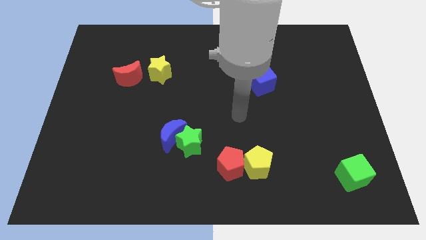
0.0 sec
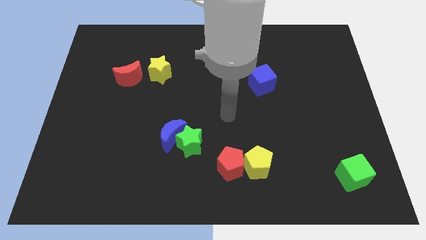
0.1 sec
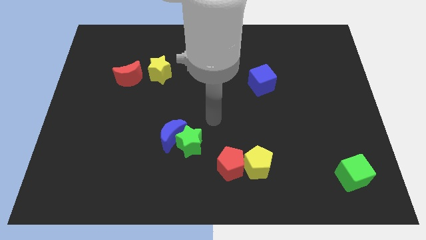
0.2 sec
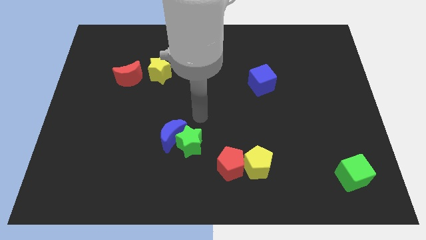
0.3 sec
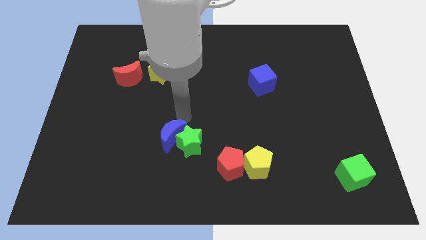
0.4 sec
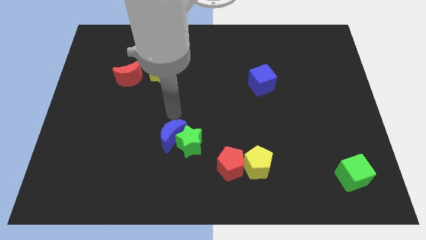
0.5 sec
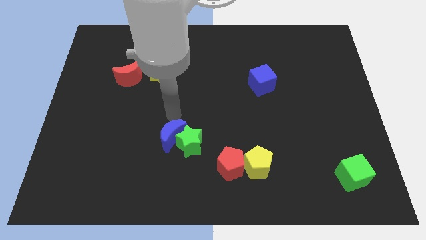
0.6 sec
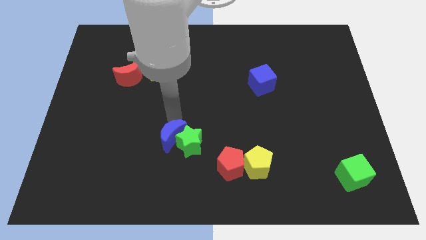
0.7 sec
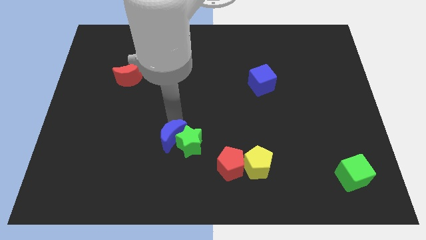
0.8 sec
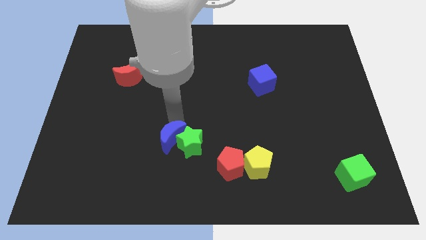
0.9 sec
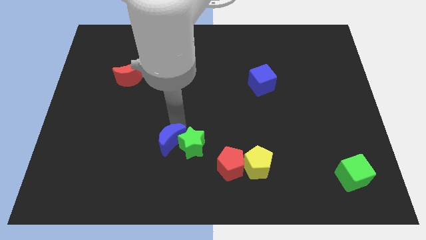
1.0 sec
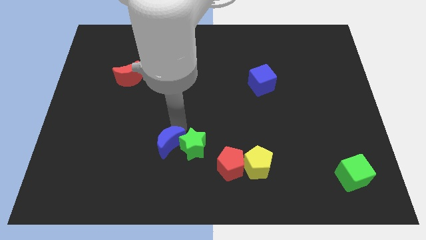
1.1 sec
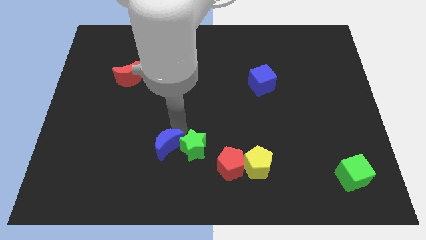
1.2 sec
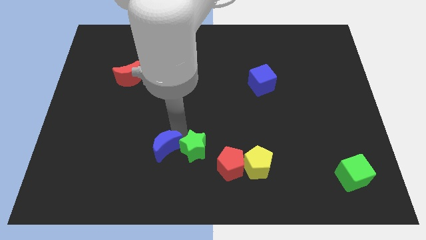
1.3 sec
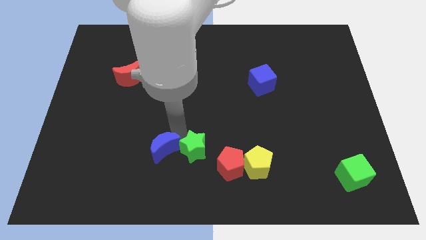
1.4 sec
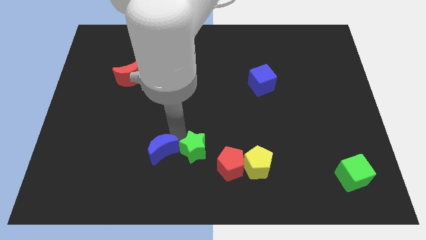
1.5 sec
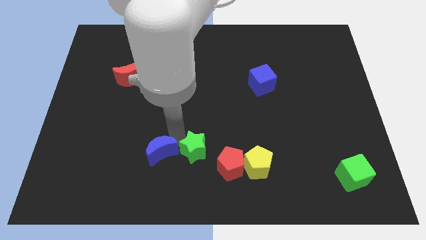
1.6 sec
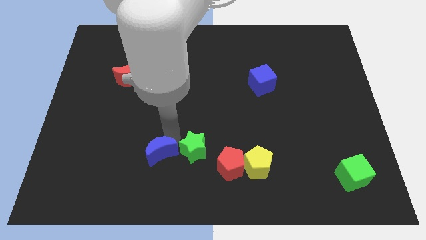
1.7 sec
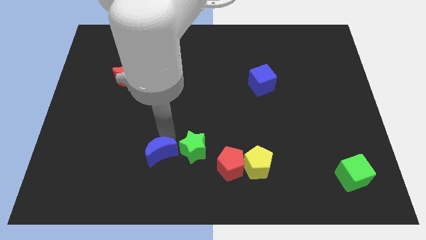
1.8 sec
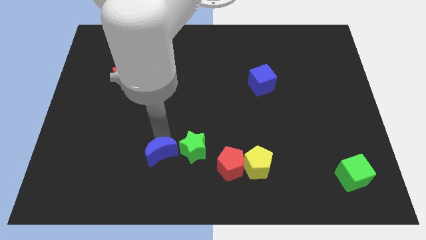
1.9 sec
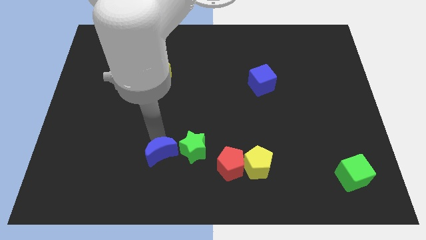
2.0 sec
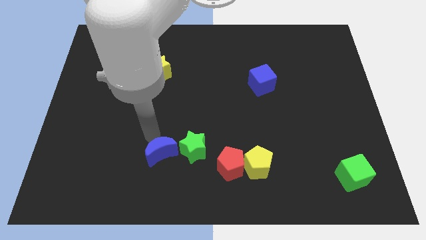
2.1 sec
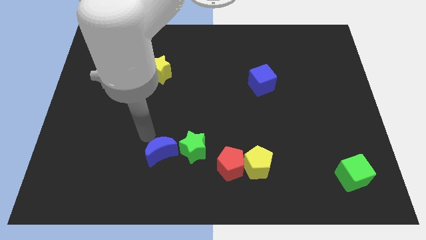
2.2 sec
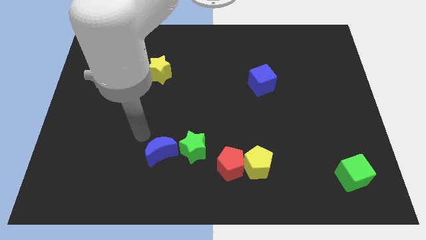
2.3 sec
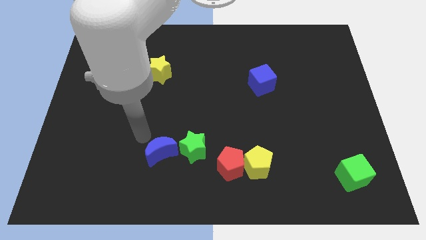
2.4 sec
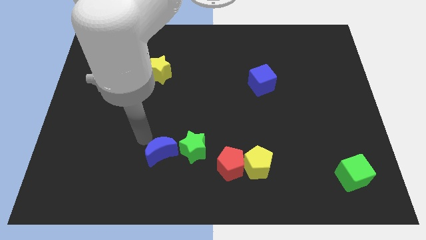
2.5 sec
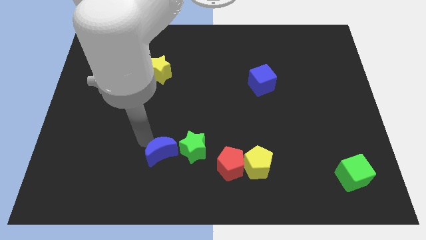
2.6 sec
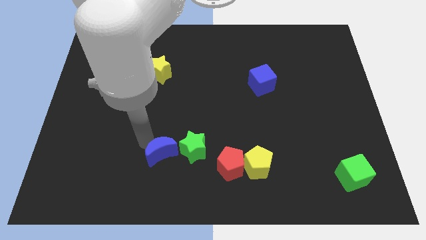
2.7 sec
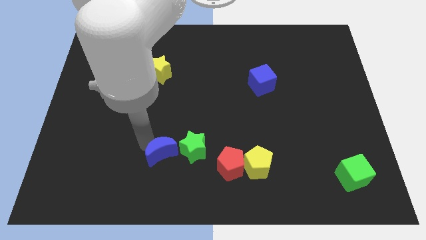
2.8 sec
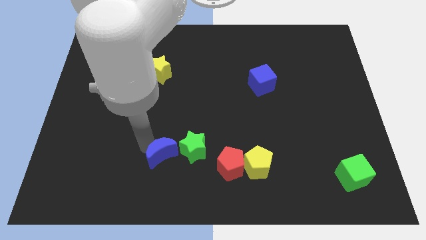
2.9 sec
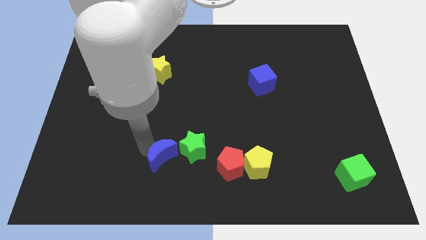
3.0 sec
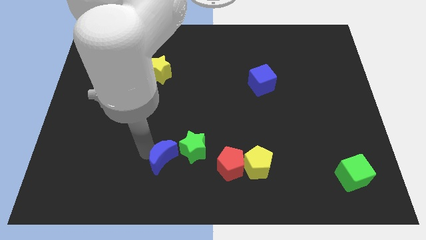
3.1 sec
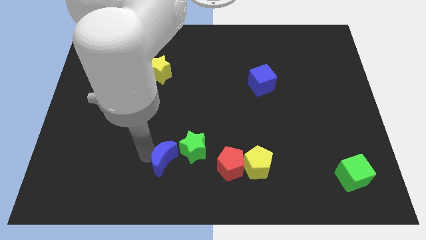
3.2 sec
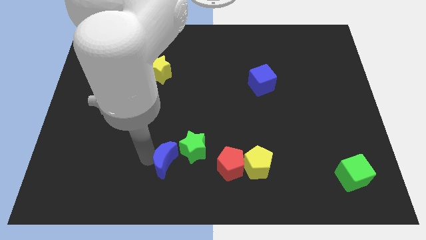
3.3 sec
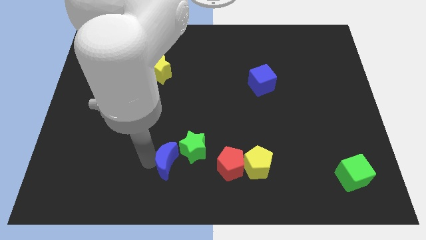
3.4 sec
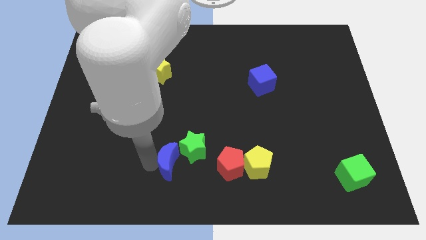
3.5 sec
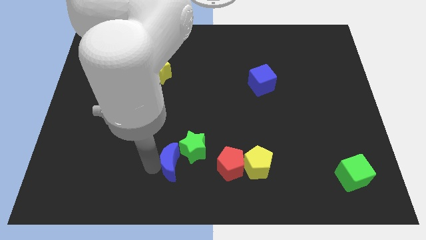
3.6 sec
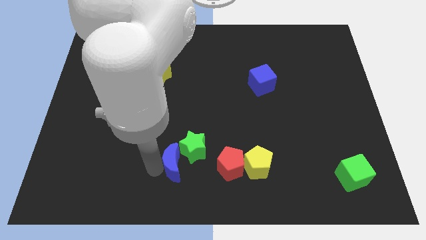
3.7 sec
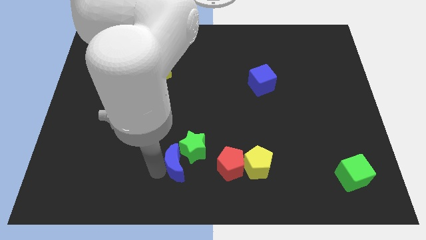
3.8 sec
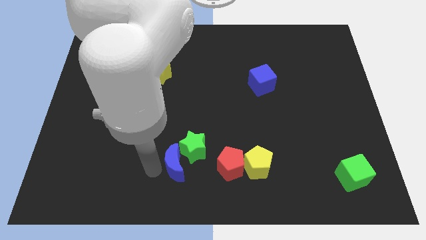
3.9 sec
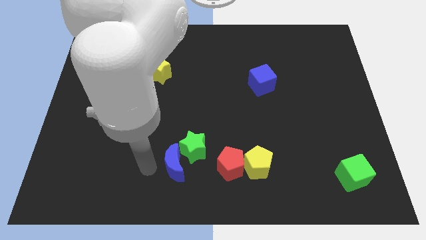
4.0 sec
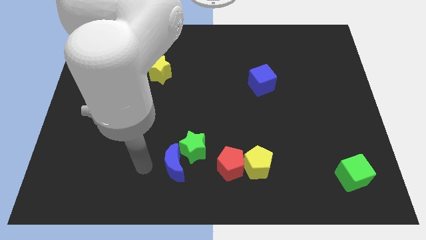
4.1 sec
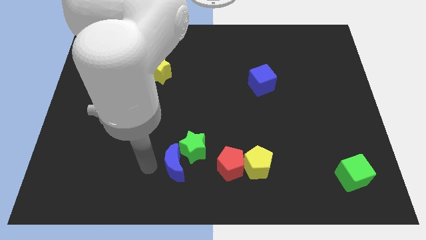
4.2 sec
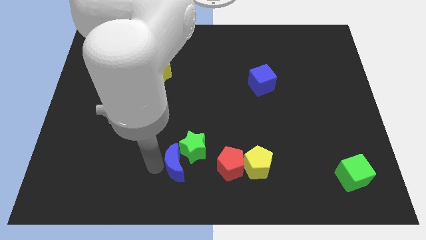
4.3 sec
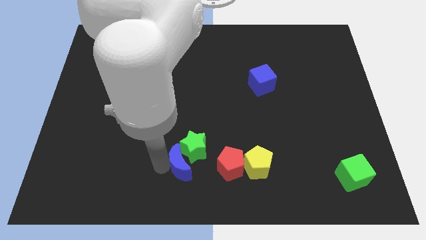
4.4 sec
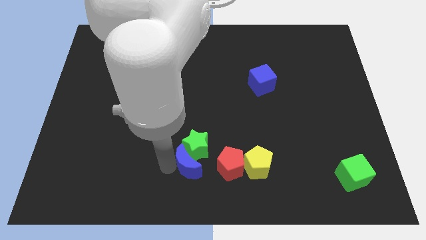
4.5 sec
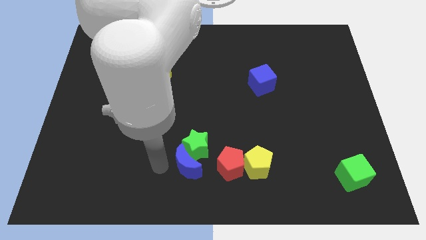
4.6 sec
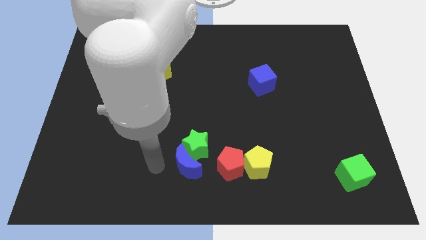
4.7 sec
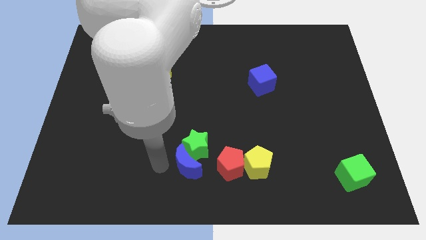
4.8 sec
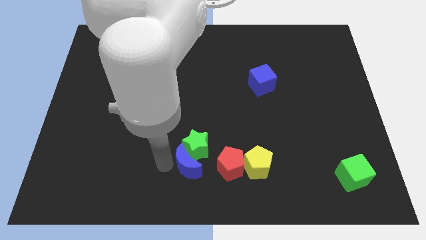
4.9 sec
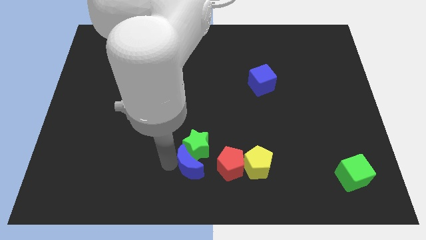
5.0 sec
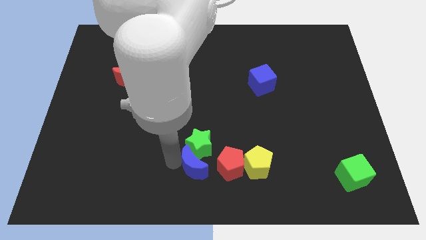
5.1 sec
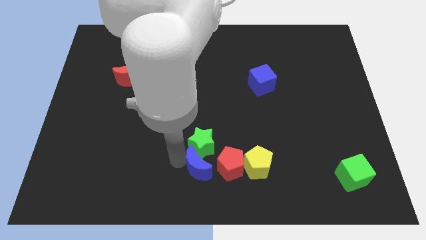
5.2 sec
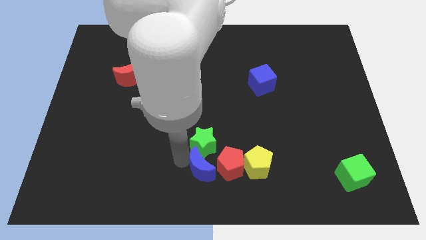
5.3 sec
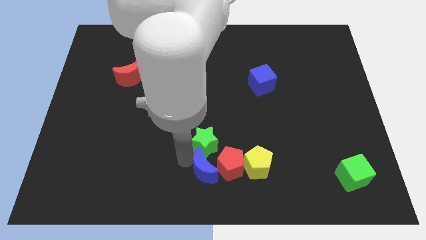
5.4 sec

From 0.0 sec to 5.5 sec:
move the blue moon towards the red pentagon

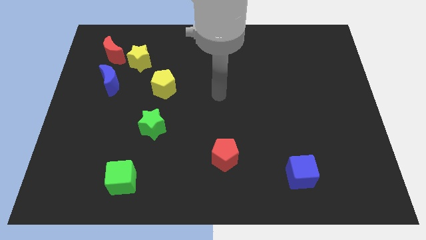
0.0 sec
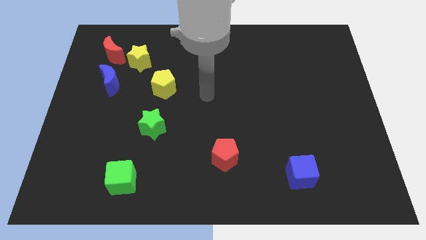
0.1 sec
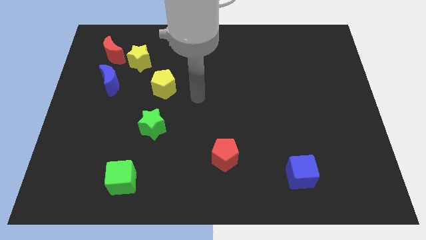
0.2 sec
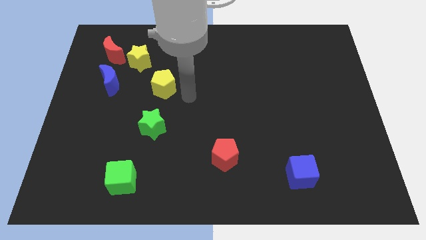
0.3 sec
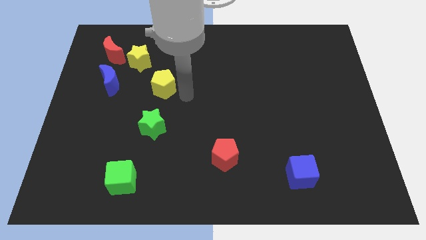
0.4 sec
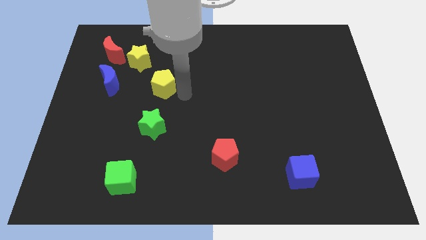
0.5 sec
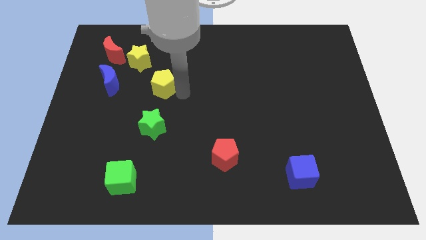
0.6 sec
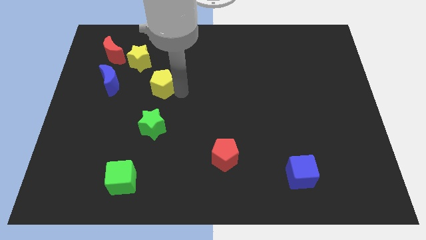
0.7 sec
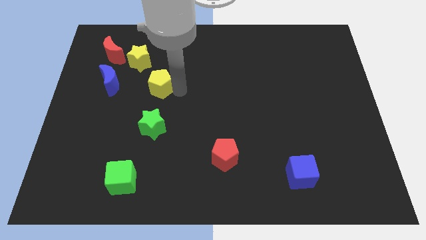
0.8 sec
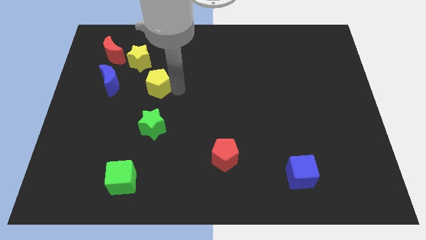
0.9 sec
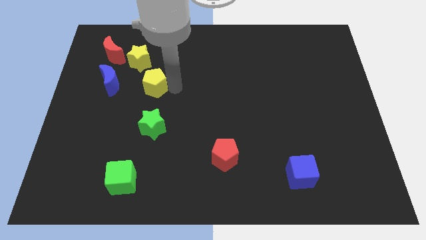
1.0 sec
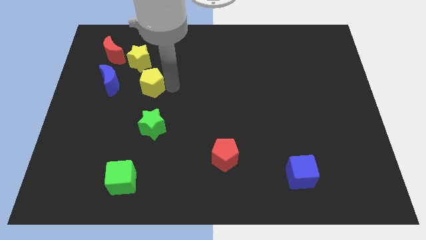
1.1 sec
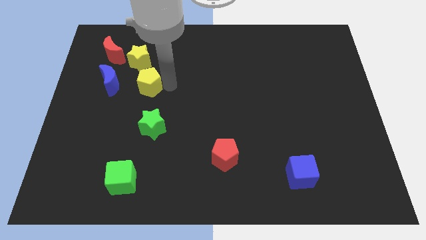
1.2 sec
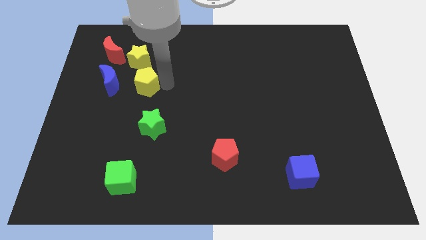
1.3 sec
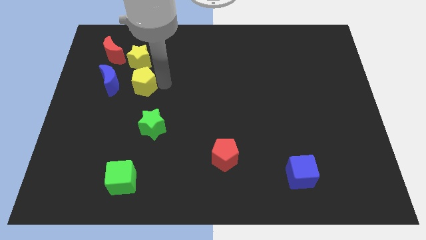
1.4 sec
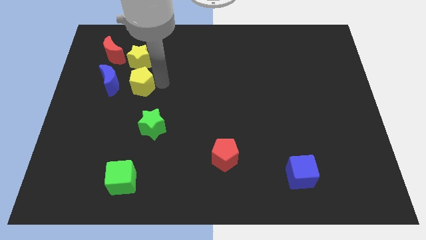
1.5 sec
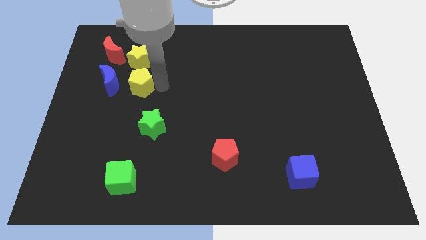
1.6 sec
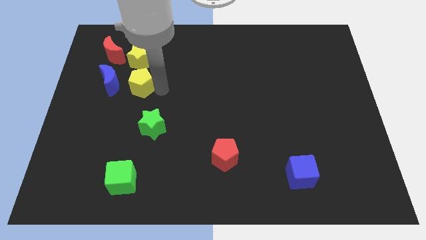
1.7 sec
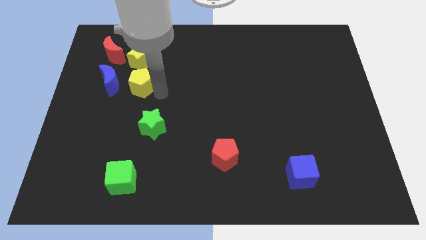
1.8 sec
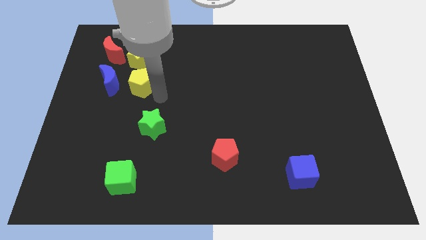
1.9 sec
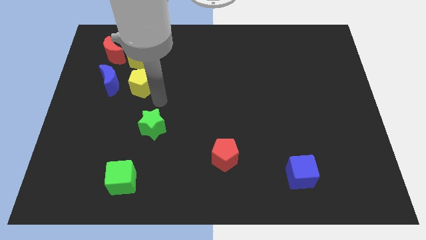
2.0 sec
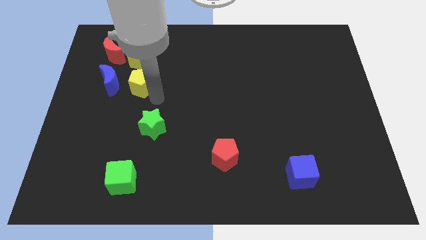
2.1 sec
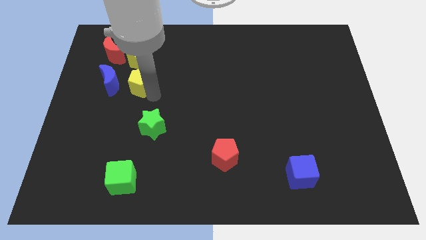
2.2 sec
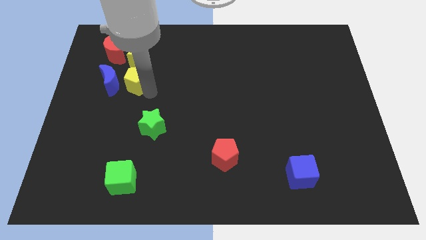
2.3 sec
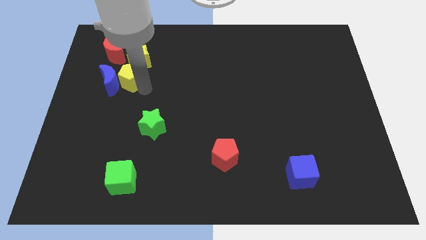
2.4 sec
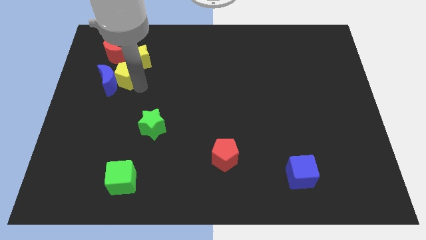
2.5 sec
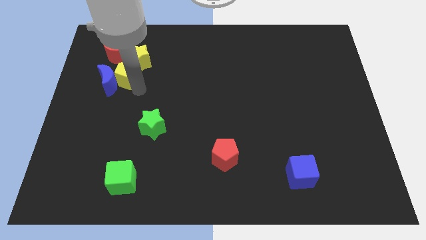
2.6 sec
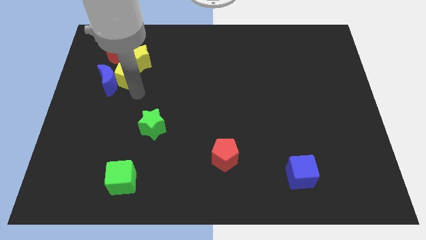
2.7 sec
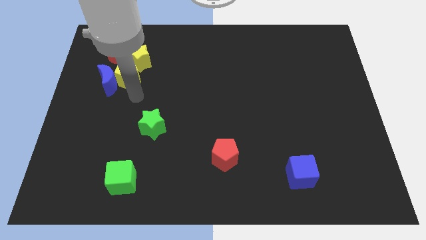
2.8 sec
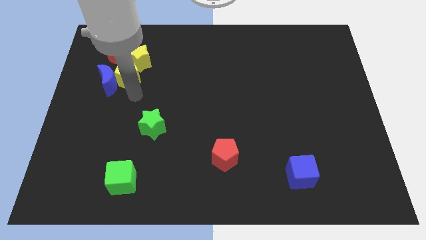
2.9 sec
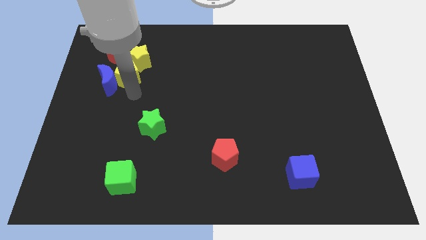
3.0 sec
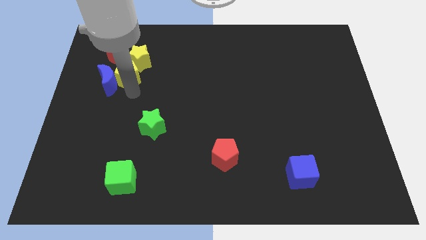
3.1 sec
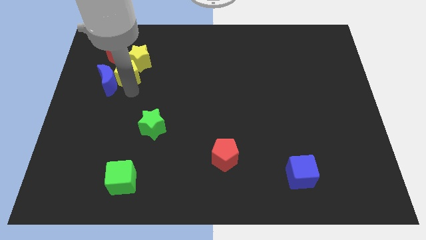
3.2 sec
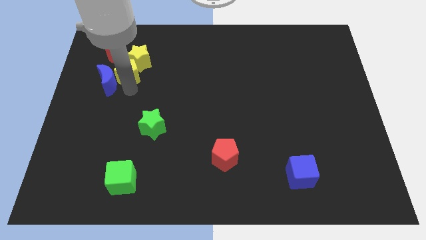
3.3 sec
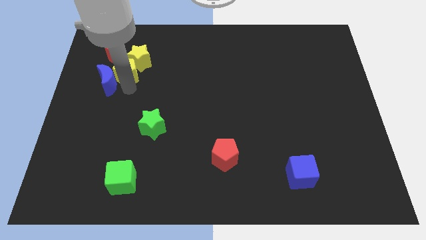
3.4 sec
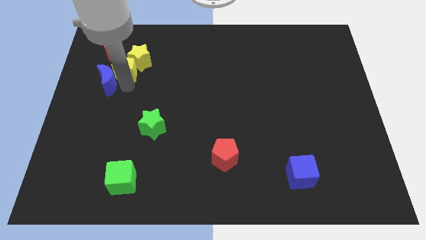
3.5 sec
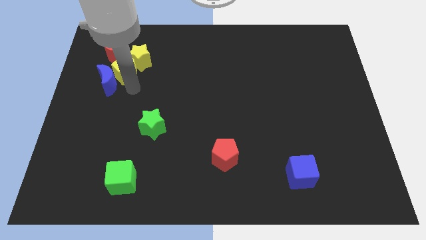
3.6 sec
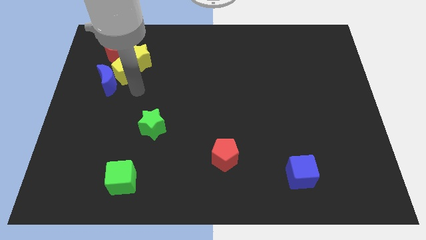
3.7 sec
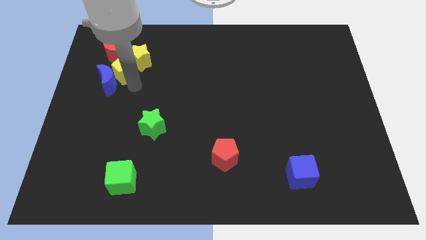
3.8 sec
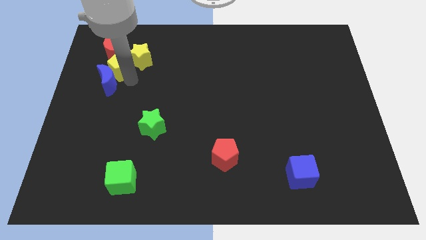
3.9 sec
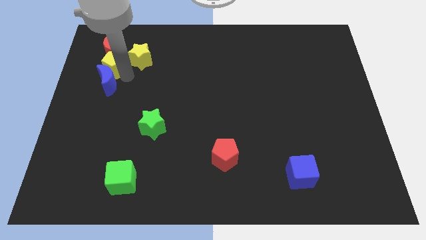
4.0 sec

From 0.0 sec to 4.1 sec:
put the yellow pentagon towards the red moon
